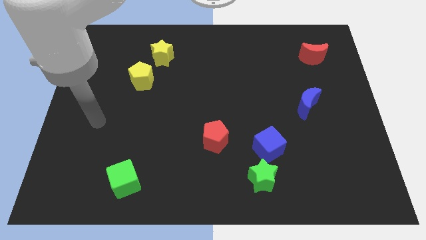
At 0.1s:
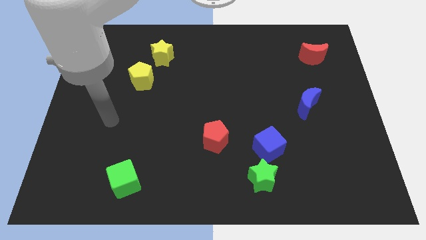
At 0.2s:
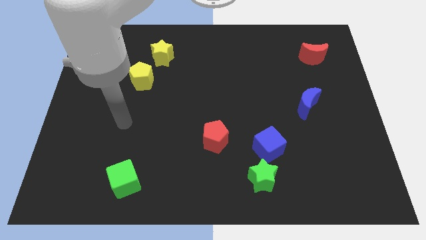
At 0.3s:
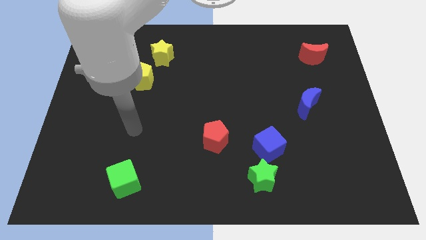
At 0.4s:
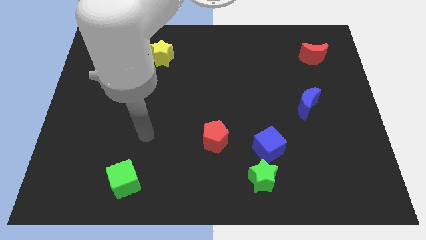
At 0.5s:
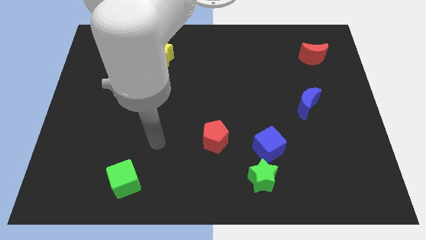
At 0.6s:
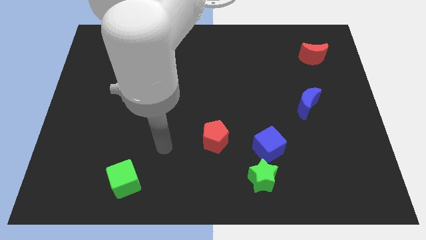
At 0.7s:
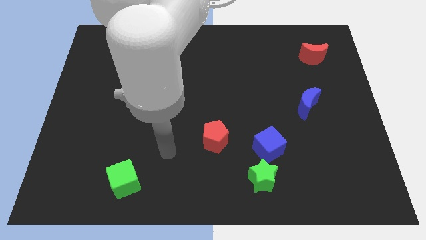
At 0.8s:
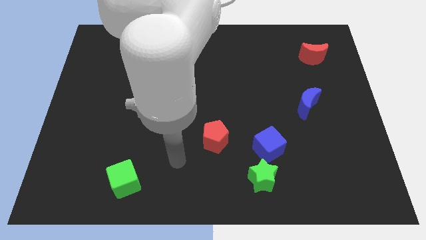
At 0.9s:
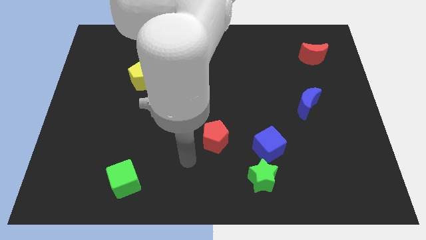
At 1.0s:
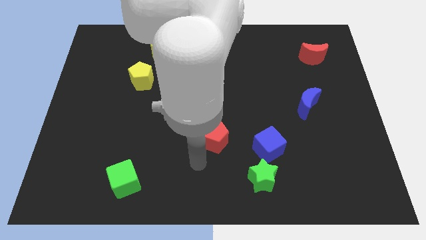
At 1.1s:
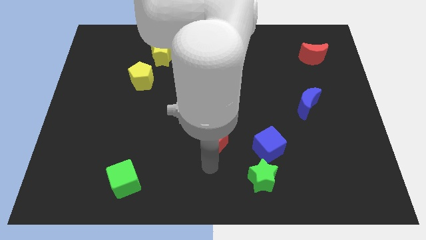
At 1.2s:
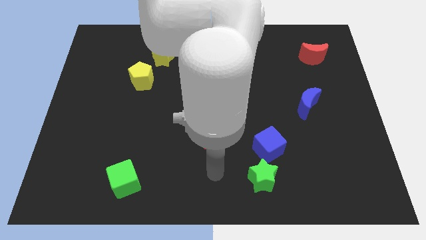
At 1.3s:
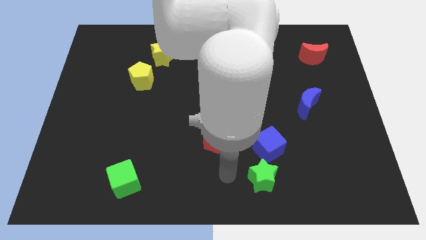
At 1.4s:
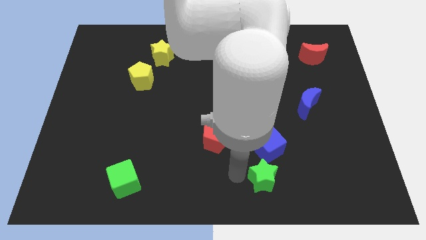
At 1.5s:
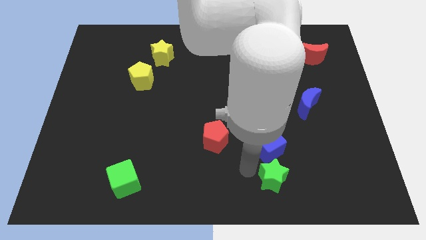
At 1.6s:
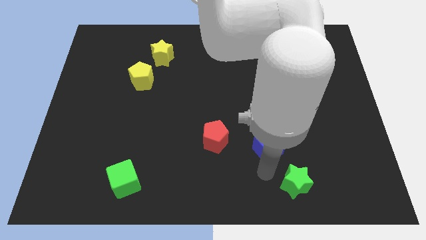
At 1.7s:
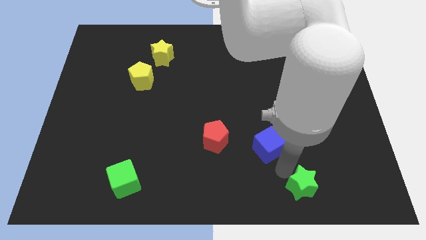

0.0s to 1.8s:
move the blue cube away from the green star

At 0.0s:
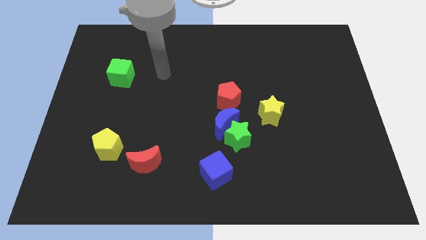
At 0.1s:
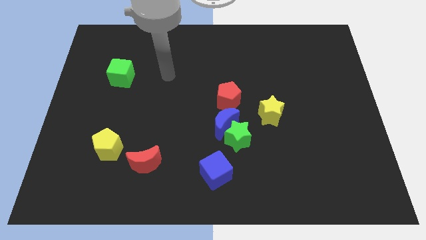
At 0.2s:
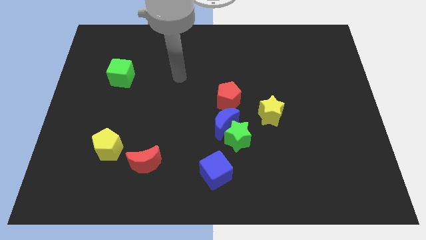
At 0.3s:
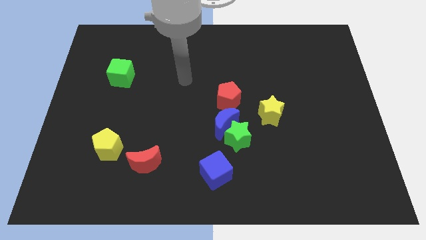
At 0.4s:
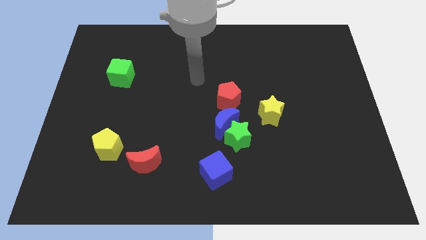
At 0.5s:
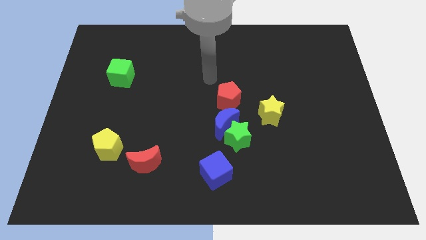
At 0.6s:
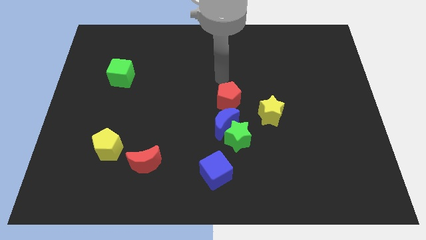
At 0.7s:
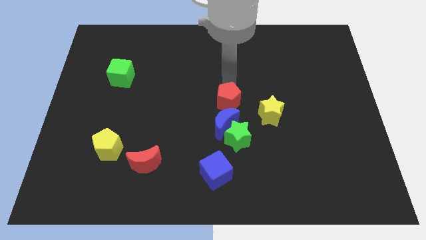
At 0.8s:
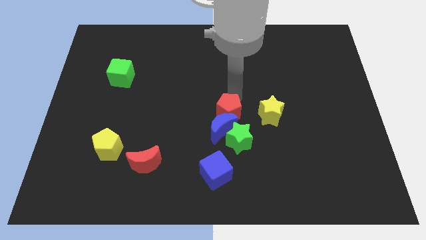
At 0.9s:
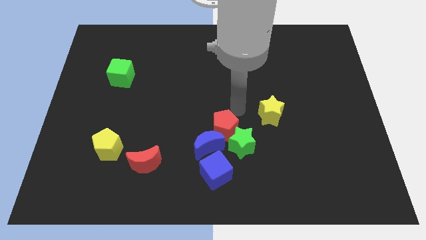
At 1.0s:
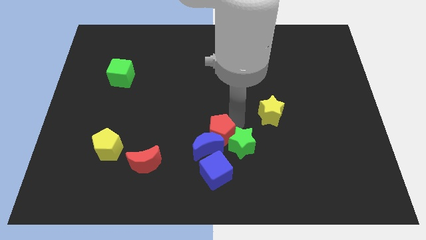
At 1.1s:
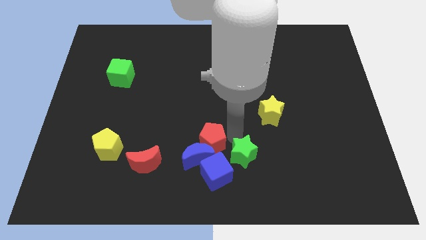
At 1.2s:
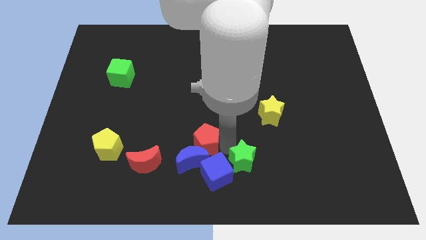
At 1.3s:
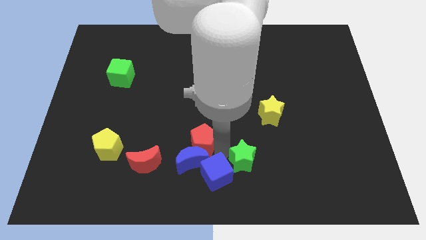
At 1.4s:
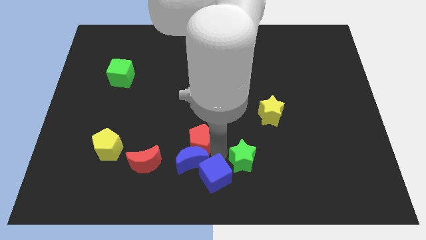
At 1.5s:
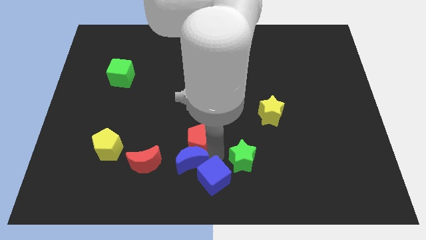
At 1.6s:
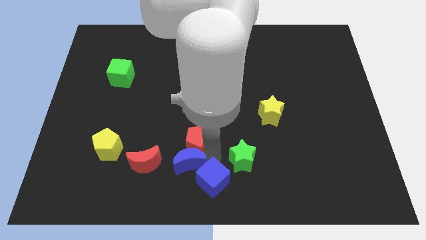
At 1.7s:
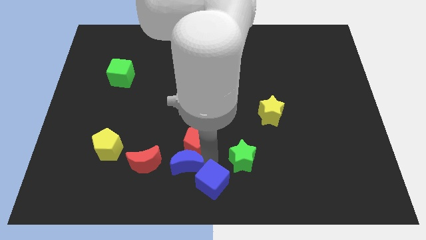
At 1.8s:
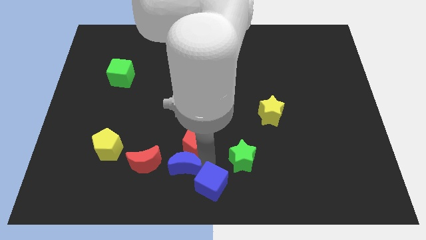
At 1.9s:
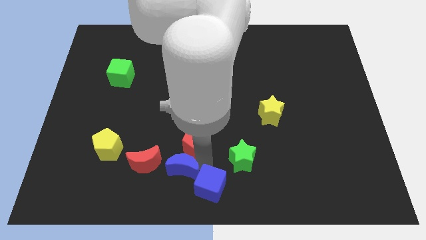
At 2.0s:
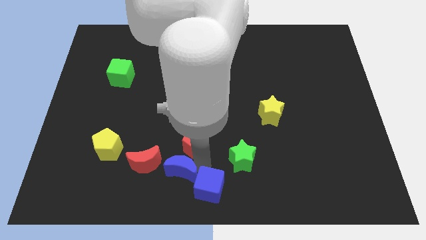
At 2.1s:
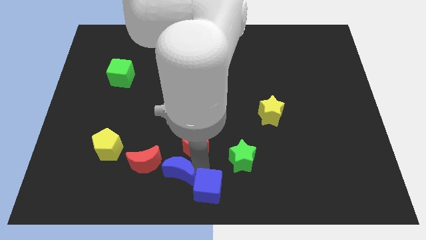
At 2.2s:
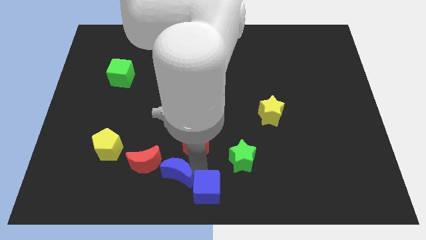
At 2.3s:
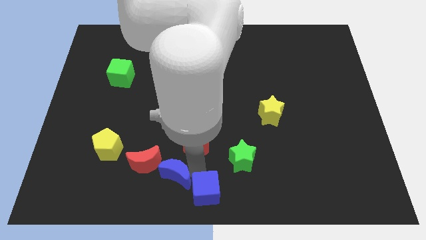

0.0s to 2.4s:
move the blue moon away from the green star and red pentagon

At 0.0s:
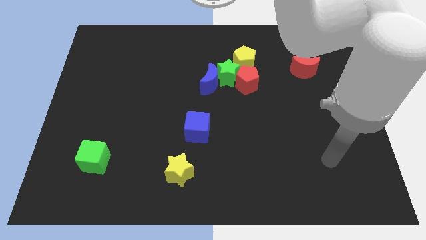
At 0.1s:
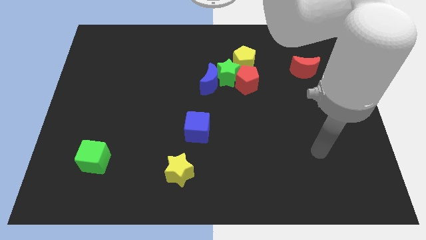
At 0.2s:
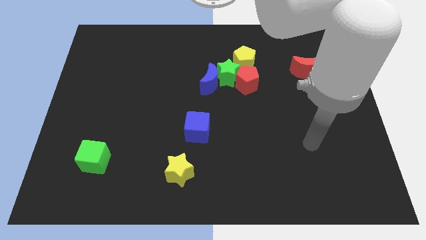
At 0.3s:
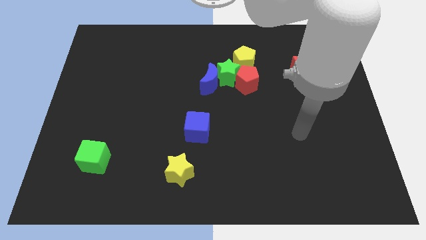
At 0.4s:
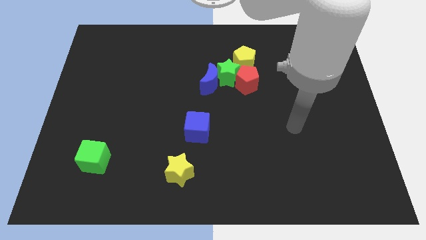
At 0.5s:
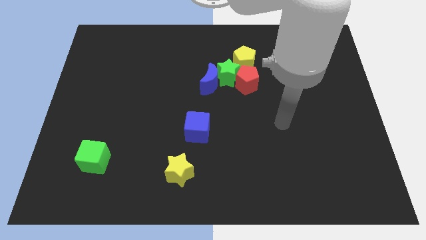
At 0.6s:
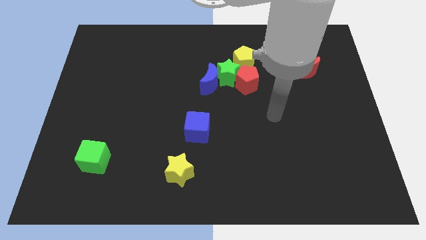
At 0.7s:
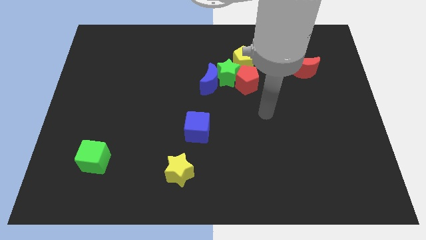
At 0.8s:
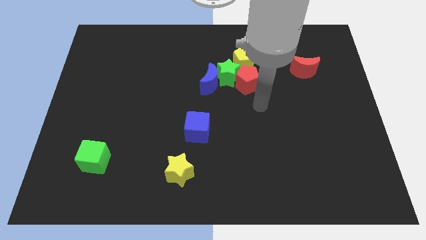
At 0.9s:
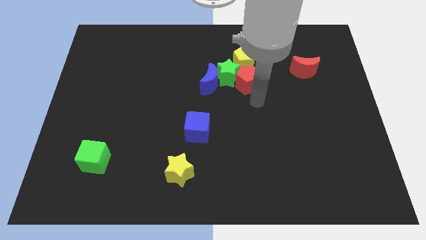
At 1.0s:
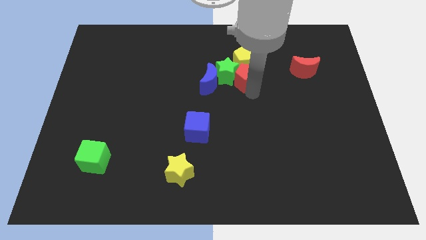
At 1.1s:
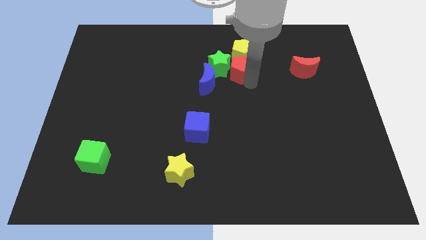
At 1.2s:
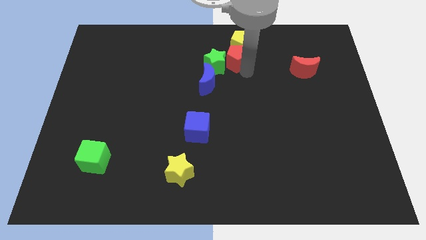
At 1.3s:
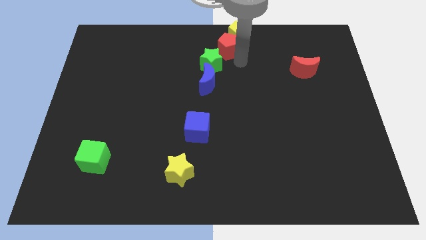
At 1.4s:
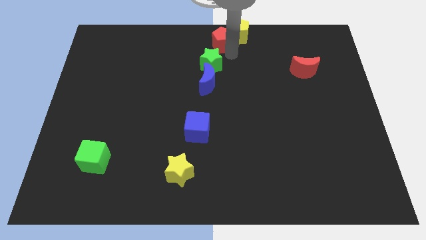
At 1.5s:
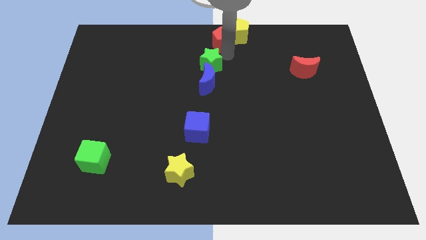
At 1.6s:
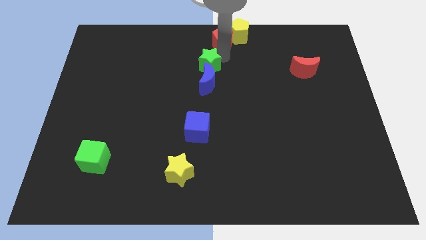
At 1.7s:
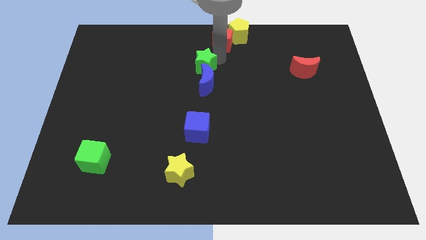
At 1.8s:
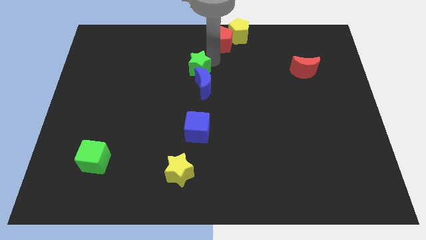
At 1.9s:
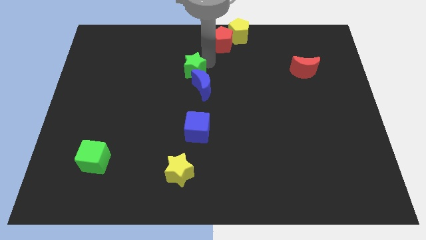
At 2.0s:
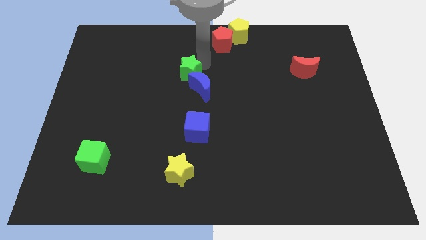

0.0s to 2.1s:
pull the green star apart from the blue moon, red pentagon, and yellow pentagon

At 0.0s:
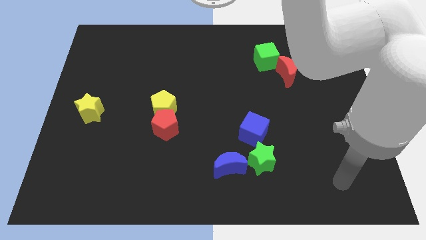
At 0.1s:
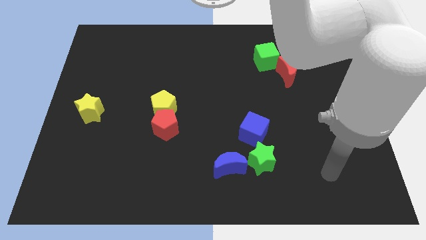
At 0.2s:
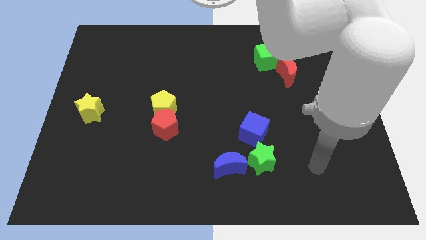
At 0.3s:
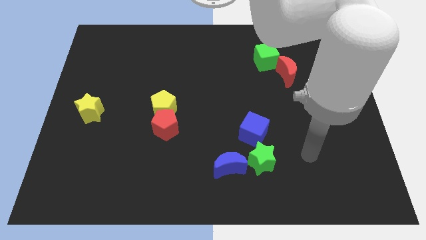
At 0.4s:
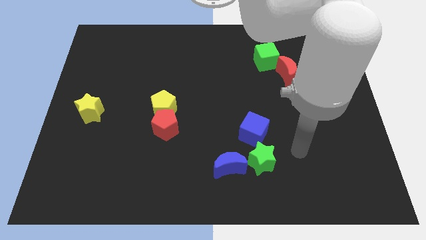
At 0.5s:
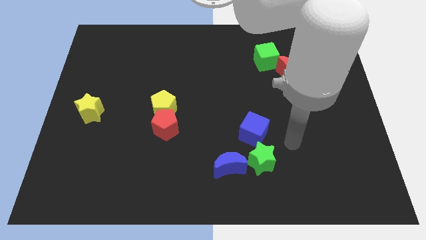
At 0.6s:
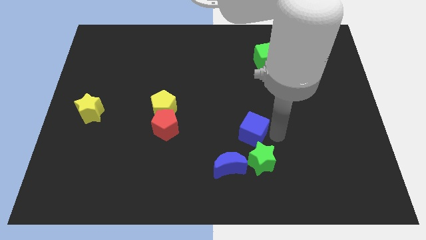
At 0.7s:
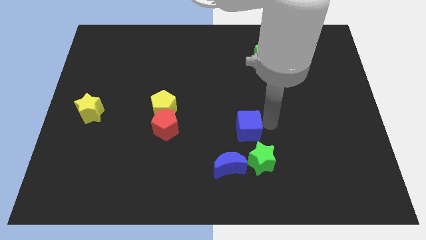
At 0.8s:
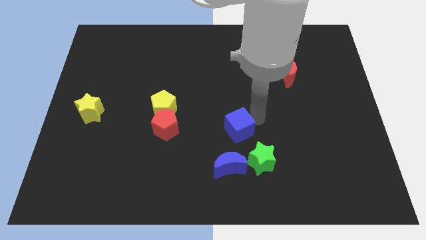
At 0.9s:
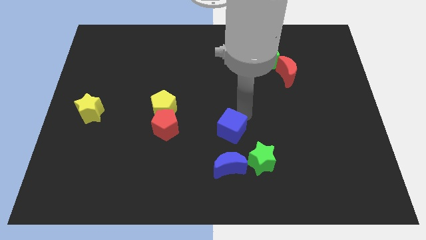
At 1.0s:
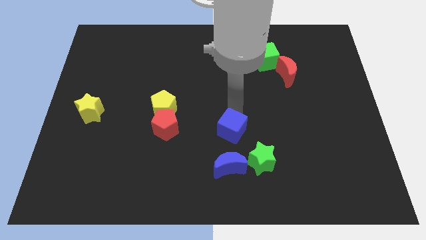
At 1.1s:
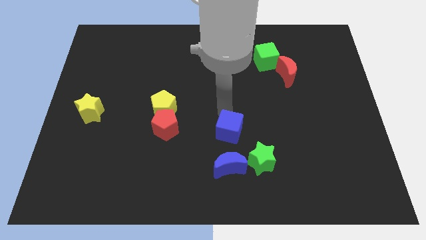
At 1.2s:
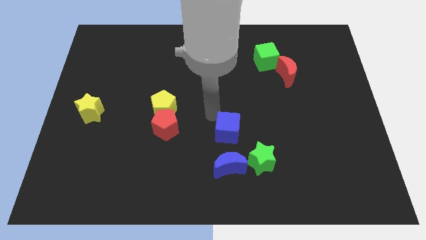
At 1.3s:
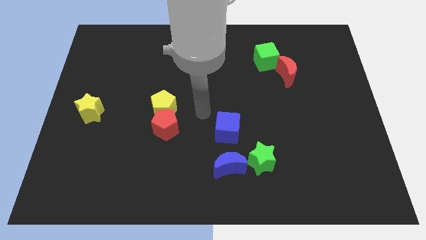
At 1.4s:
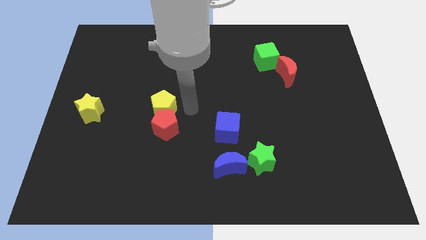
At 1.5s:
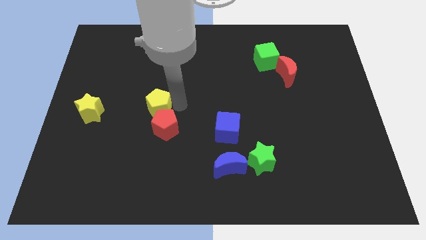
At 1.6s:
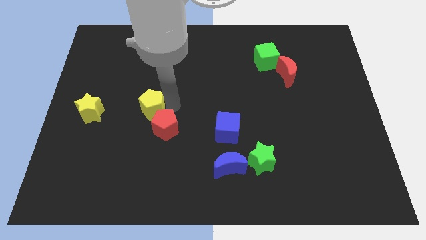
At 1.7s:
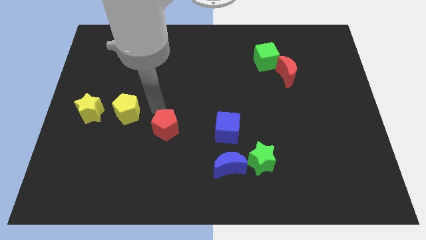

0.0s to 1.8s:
pull the red pentagon apart from the yellow pentagon

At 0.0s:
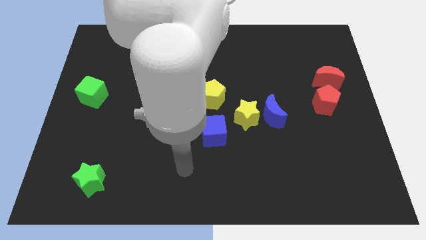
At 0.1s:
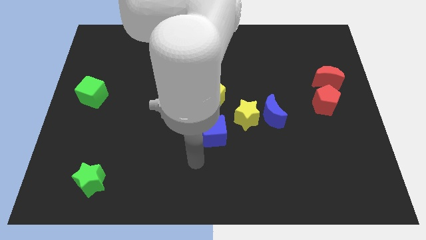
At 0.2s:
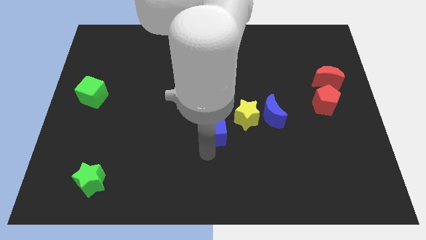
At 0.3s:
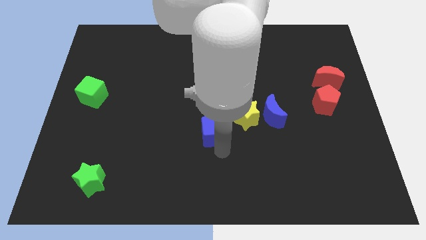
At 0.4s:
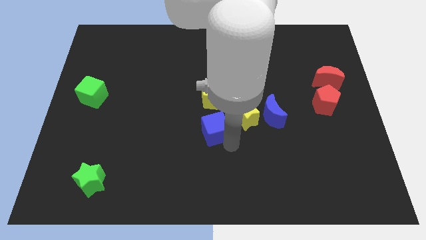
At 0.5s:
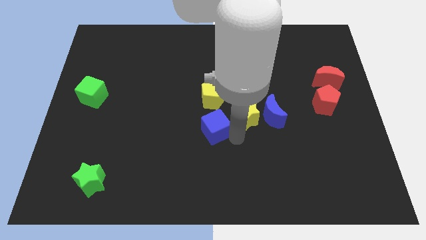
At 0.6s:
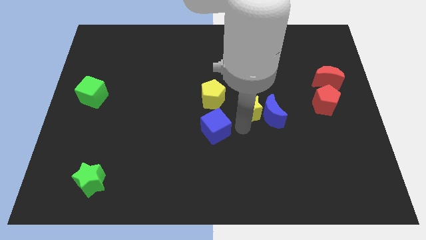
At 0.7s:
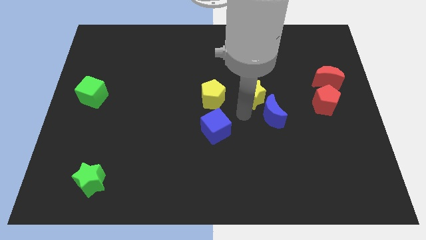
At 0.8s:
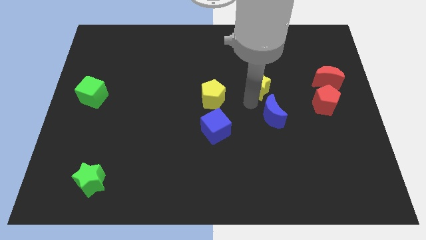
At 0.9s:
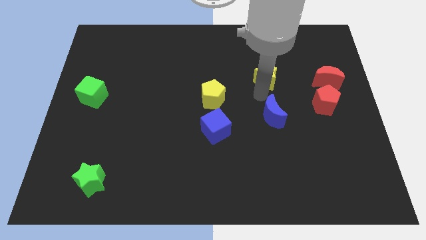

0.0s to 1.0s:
pull the blue moon apart from the yellow star

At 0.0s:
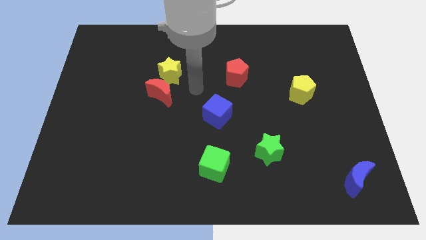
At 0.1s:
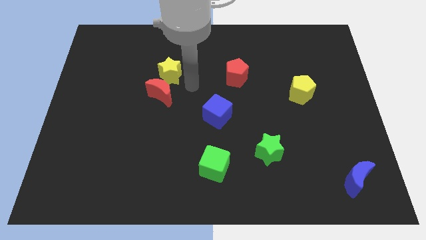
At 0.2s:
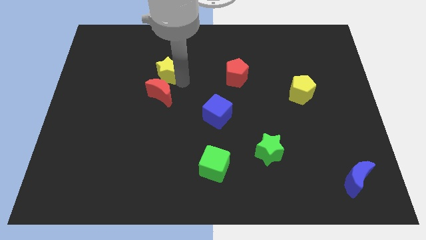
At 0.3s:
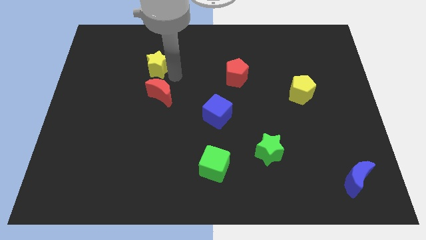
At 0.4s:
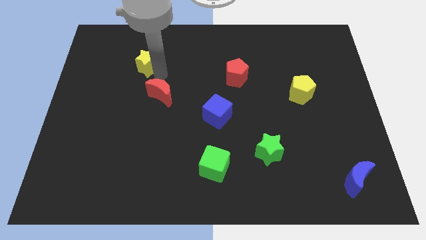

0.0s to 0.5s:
pull the red moon apart from the yellow star
